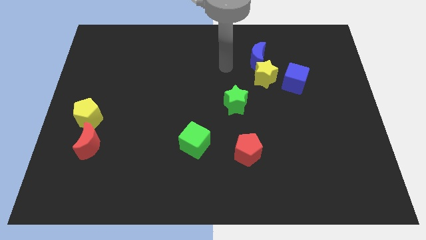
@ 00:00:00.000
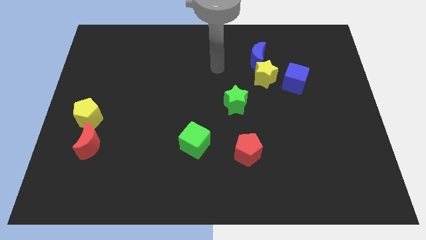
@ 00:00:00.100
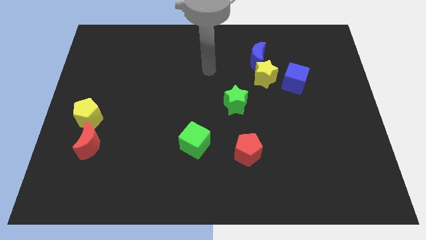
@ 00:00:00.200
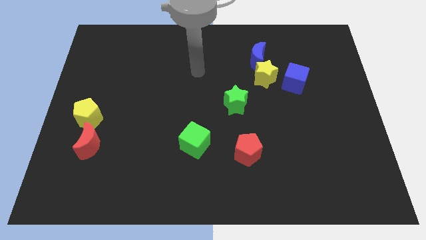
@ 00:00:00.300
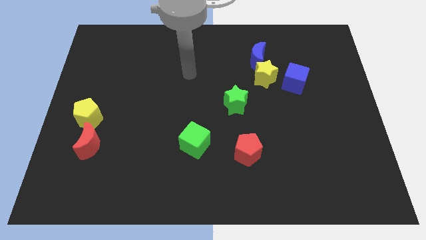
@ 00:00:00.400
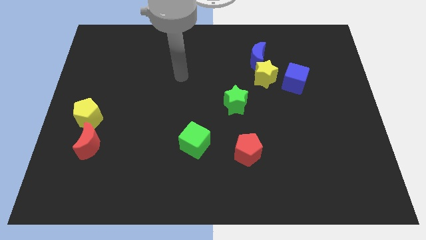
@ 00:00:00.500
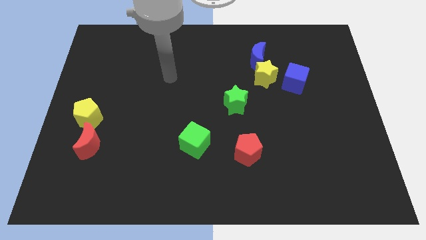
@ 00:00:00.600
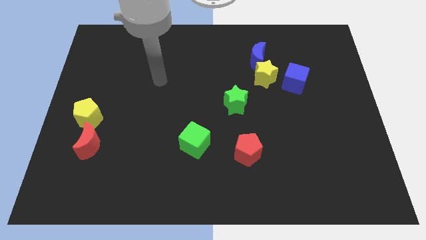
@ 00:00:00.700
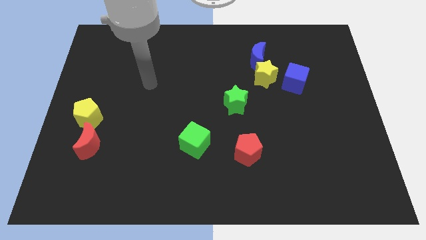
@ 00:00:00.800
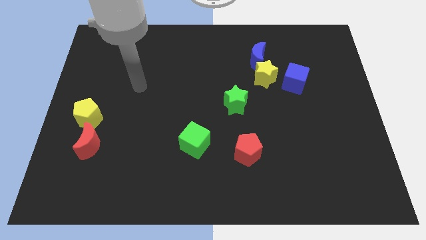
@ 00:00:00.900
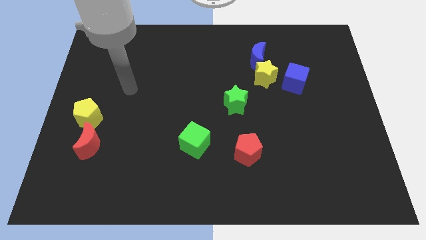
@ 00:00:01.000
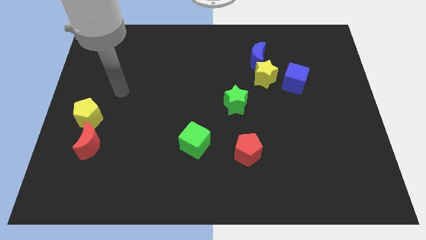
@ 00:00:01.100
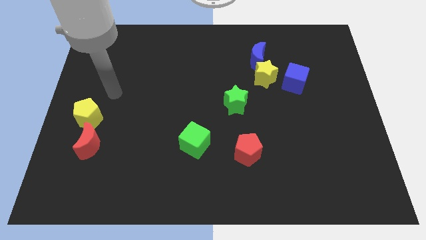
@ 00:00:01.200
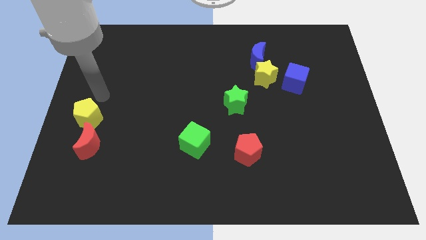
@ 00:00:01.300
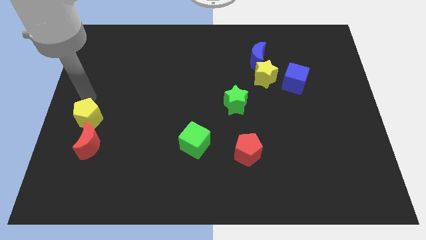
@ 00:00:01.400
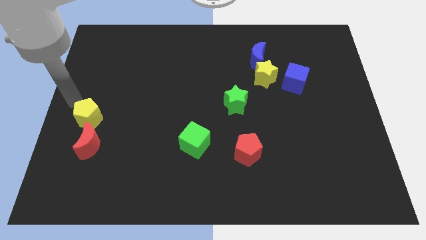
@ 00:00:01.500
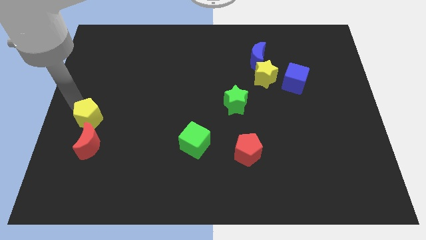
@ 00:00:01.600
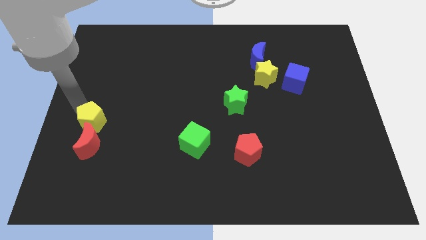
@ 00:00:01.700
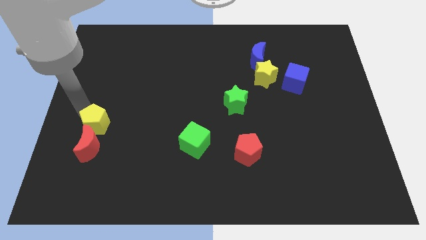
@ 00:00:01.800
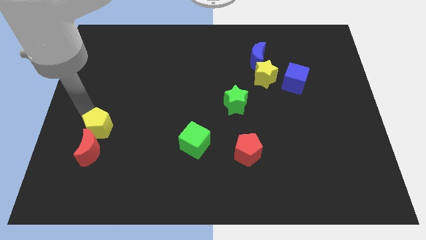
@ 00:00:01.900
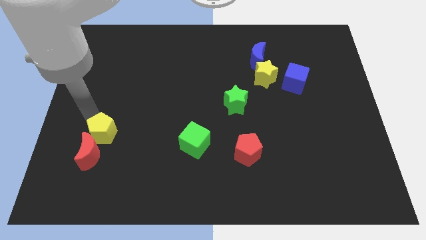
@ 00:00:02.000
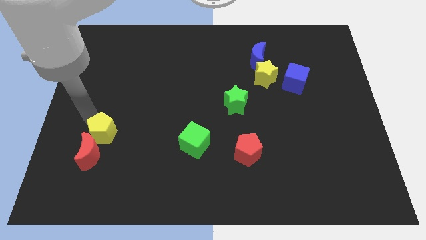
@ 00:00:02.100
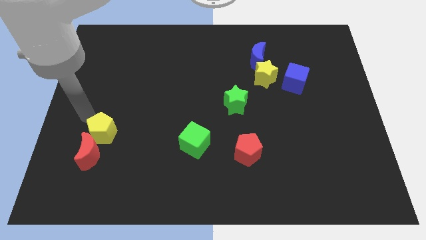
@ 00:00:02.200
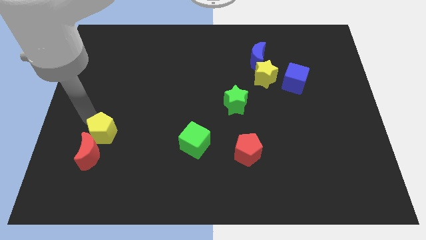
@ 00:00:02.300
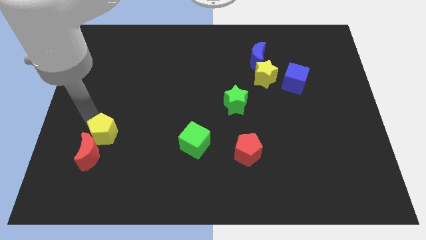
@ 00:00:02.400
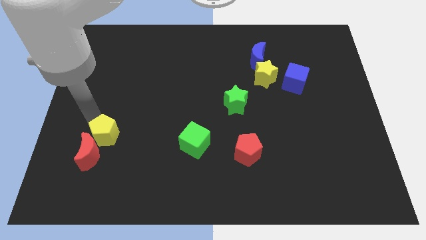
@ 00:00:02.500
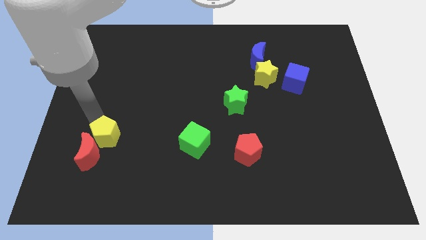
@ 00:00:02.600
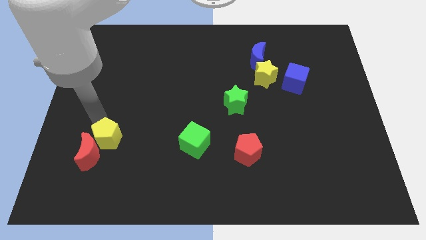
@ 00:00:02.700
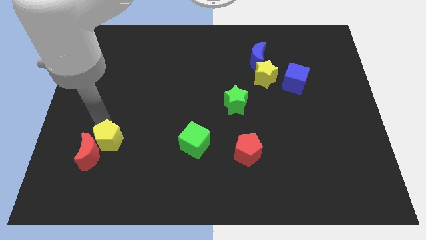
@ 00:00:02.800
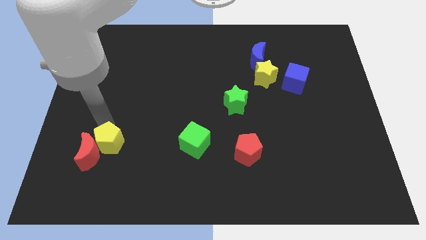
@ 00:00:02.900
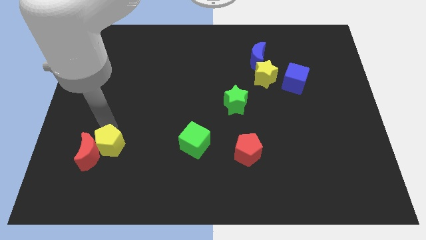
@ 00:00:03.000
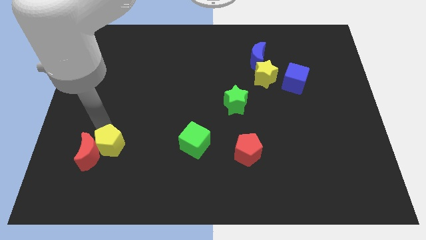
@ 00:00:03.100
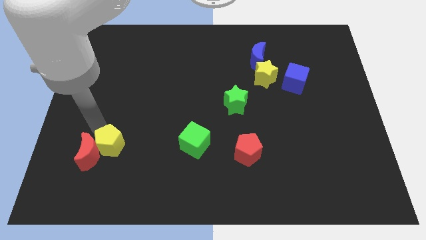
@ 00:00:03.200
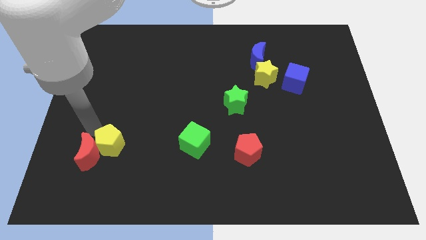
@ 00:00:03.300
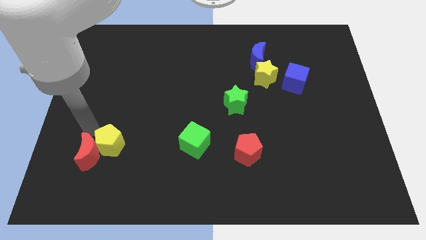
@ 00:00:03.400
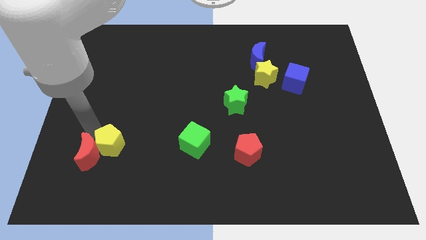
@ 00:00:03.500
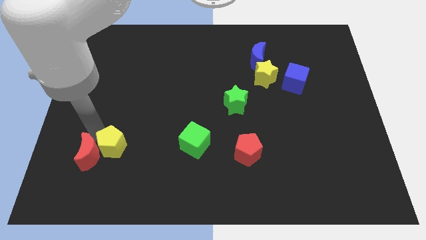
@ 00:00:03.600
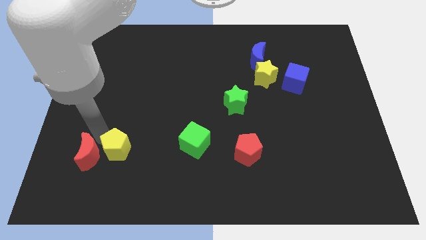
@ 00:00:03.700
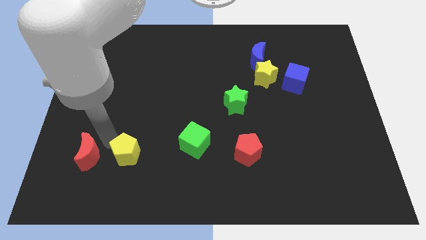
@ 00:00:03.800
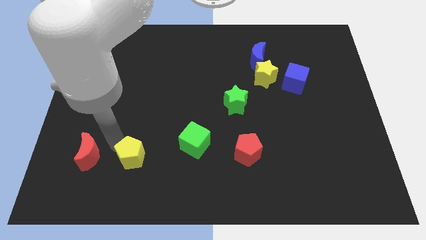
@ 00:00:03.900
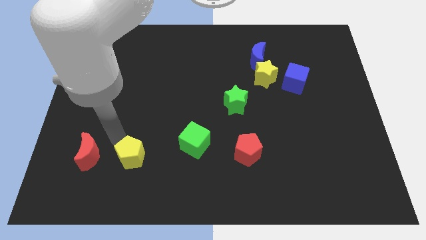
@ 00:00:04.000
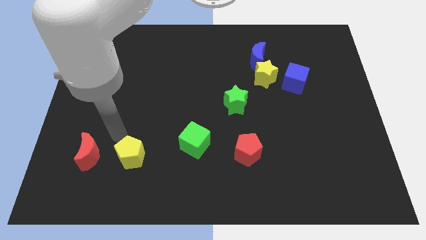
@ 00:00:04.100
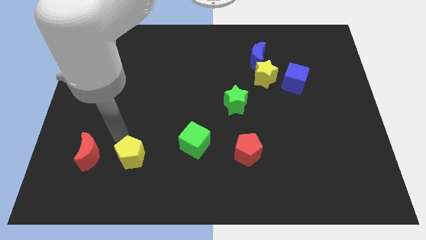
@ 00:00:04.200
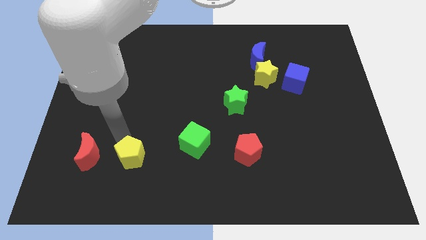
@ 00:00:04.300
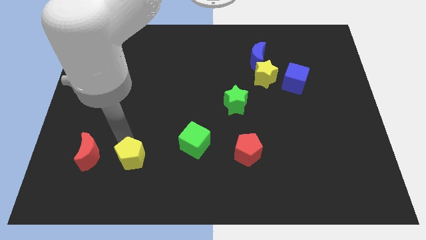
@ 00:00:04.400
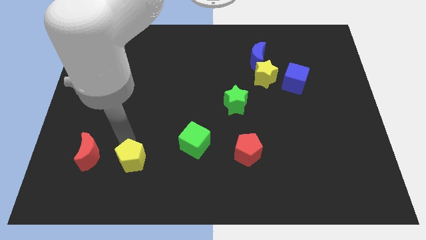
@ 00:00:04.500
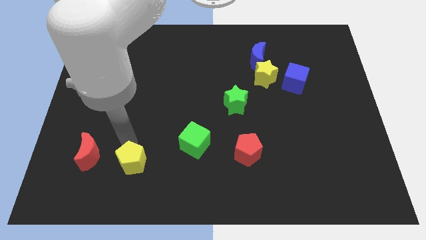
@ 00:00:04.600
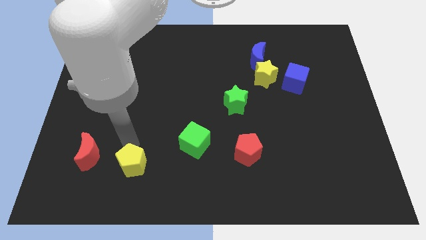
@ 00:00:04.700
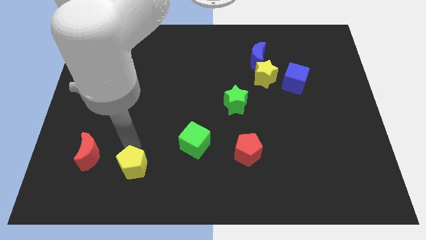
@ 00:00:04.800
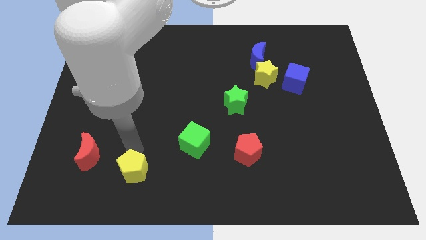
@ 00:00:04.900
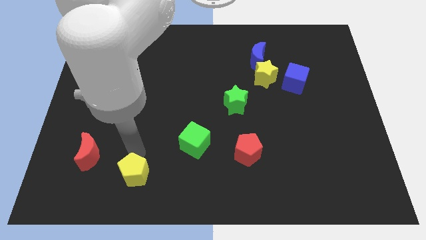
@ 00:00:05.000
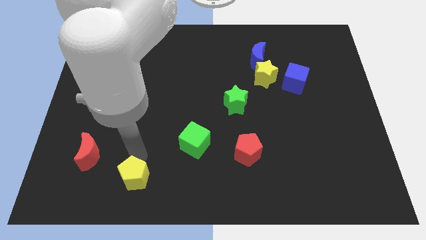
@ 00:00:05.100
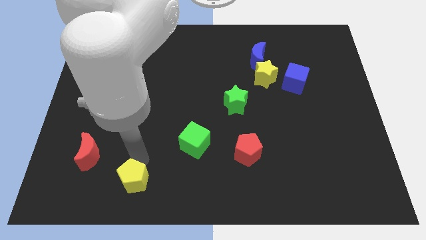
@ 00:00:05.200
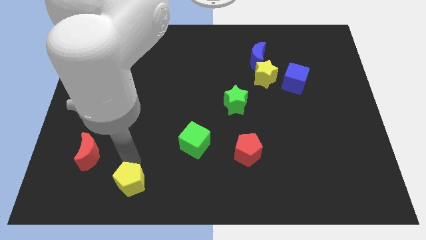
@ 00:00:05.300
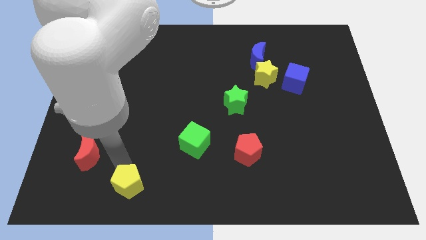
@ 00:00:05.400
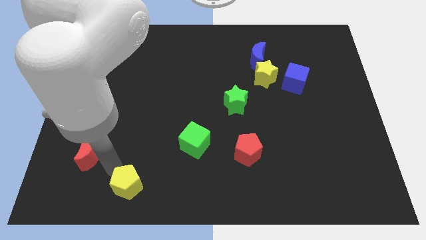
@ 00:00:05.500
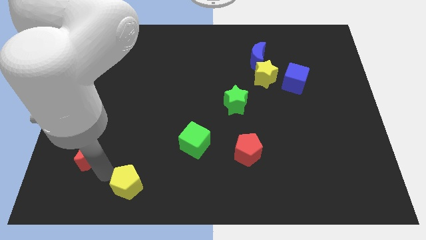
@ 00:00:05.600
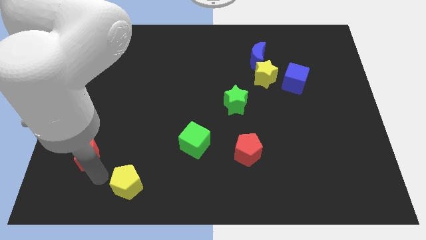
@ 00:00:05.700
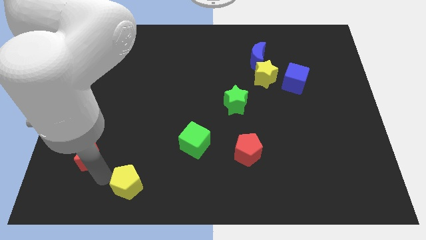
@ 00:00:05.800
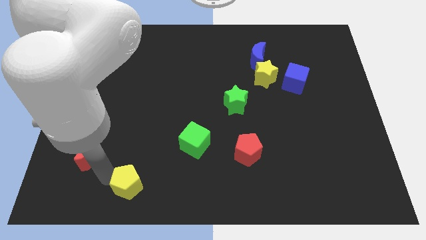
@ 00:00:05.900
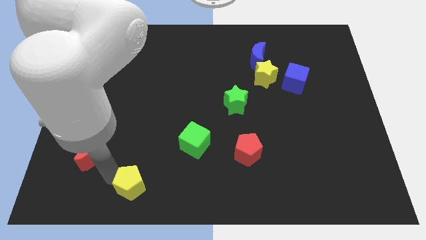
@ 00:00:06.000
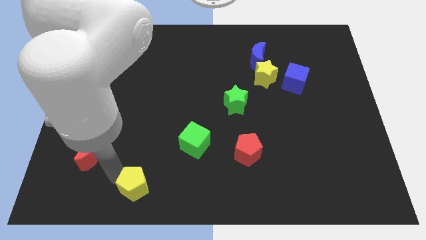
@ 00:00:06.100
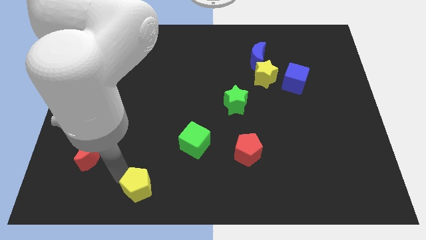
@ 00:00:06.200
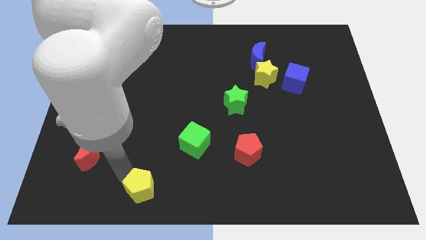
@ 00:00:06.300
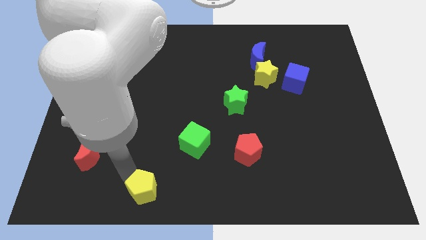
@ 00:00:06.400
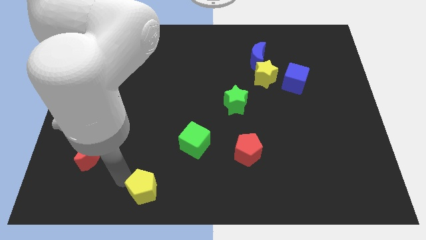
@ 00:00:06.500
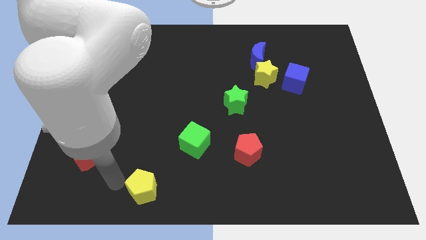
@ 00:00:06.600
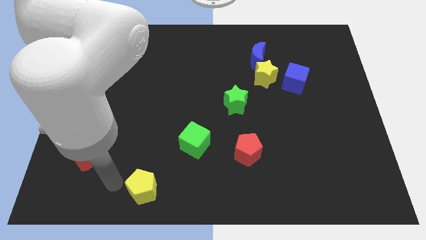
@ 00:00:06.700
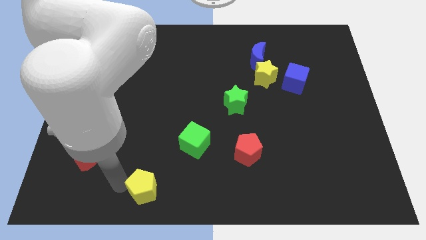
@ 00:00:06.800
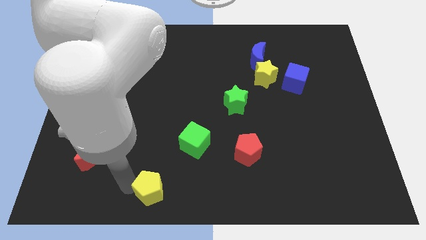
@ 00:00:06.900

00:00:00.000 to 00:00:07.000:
put the yellow pentagon to the bottom side
